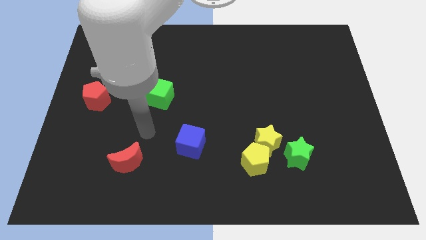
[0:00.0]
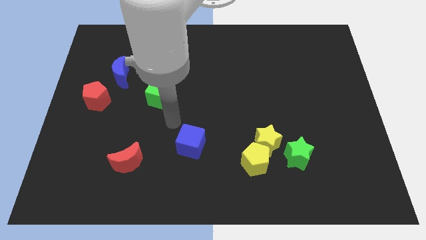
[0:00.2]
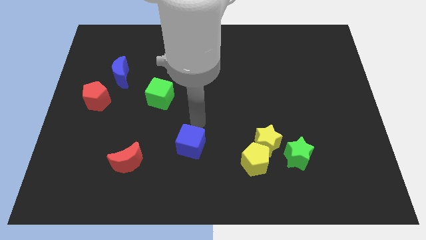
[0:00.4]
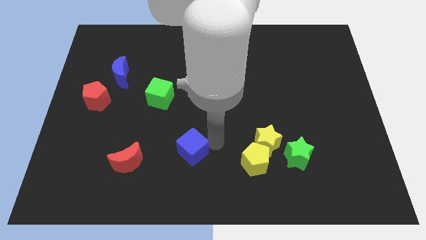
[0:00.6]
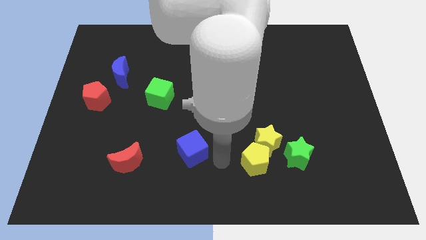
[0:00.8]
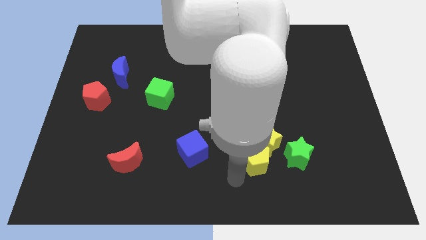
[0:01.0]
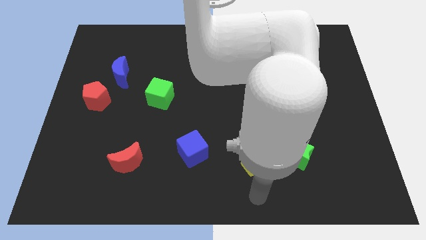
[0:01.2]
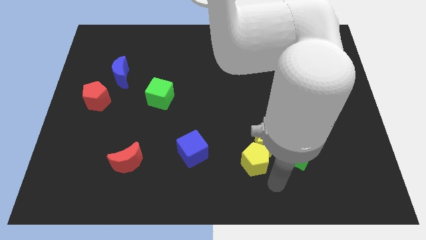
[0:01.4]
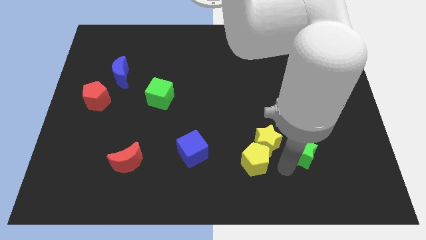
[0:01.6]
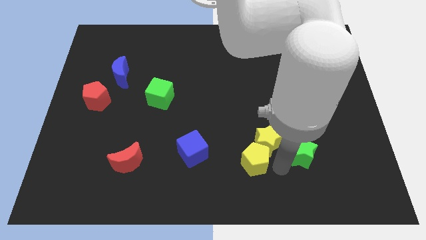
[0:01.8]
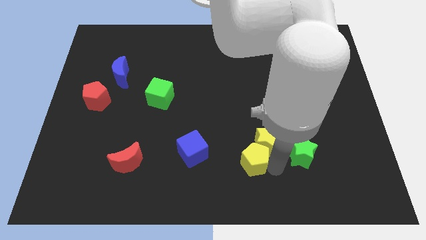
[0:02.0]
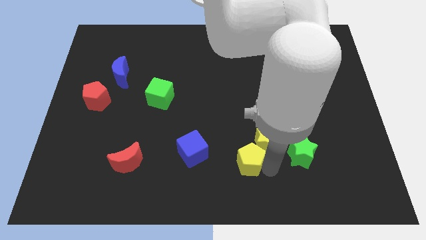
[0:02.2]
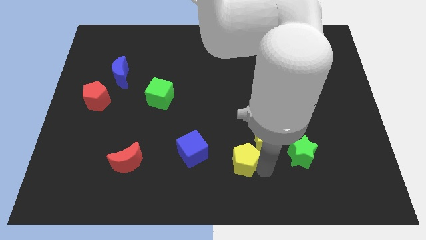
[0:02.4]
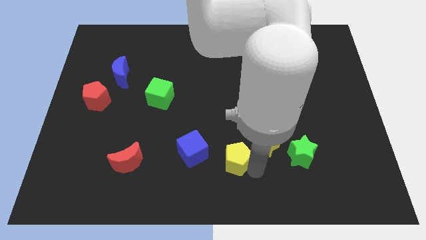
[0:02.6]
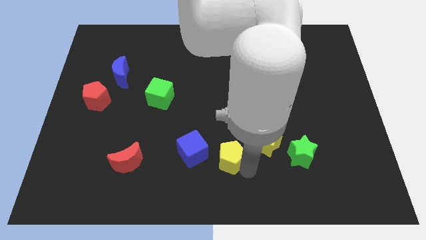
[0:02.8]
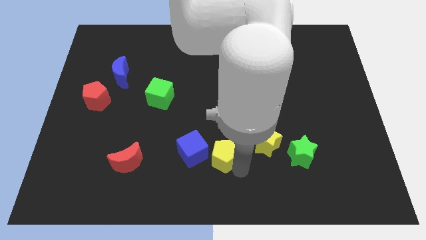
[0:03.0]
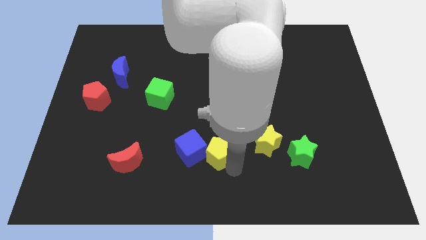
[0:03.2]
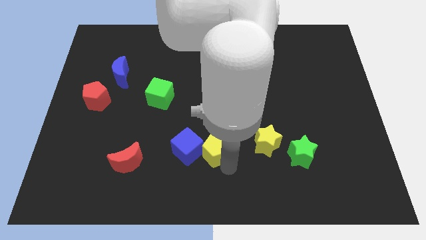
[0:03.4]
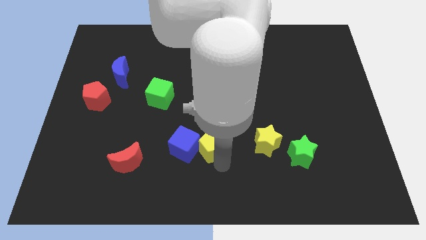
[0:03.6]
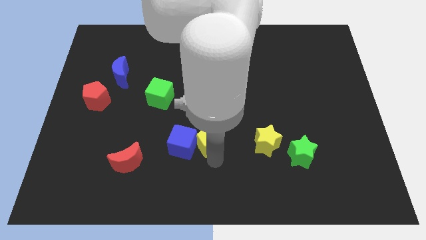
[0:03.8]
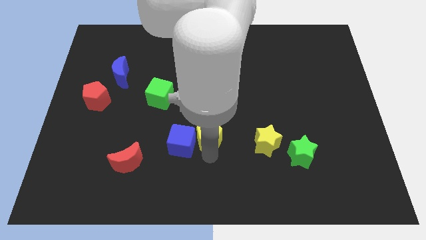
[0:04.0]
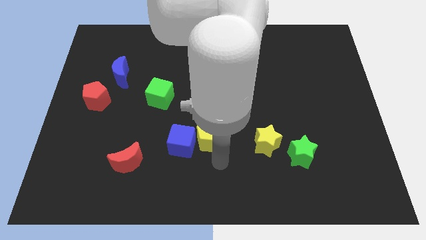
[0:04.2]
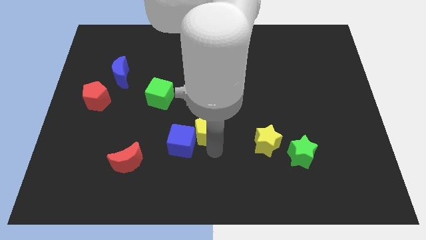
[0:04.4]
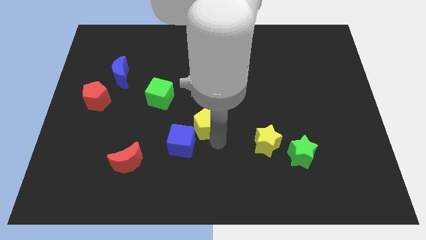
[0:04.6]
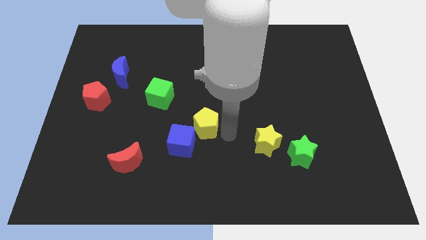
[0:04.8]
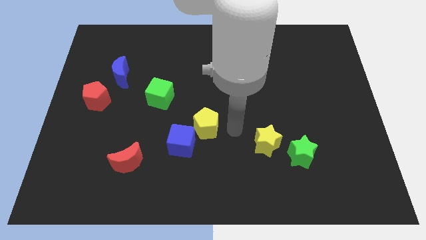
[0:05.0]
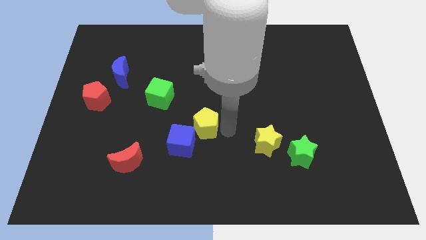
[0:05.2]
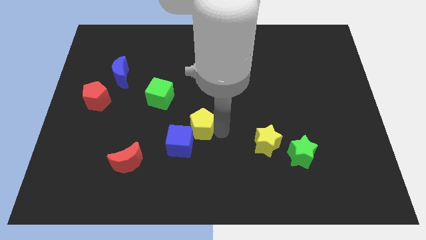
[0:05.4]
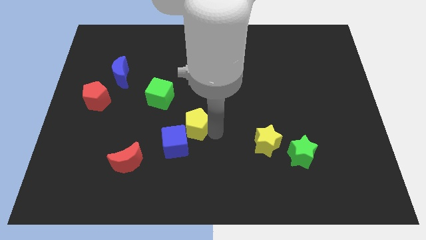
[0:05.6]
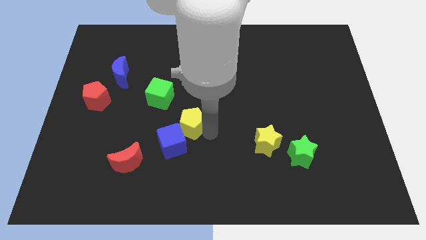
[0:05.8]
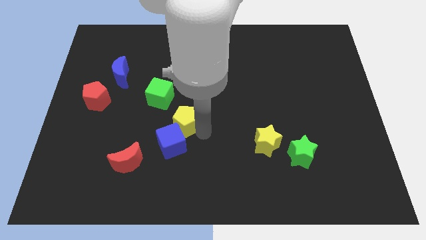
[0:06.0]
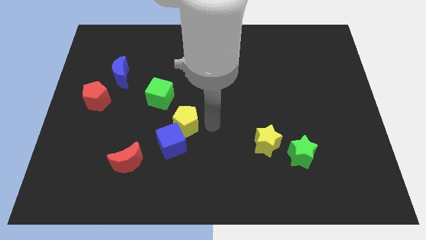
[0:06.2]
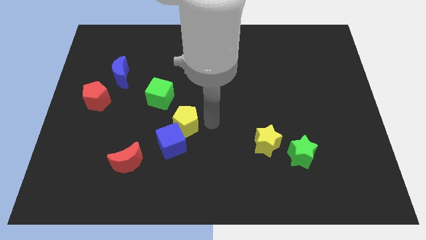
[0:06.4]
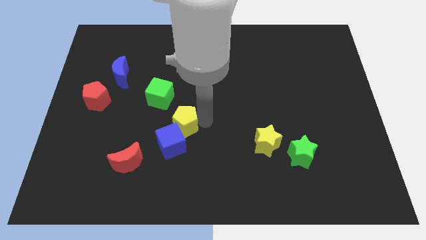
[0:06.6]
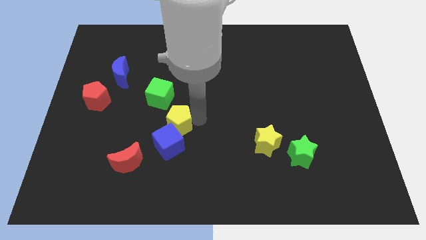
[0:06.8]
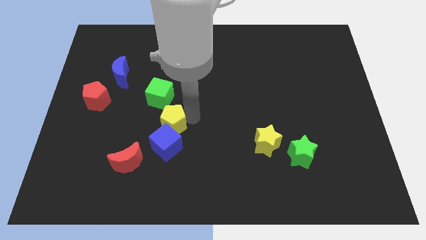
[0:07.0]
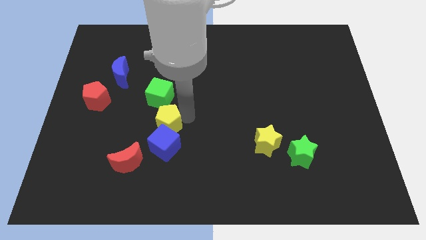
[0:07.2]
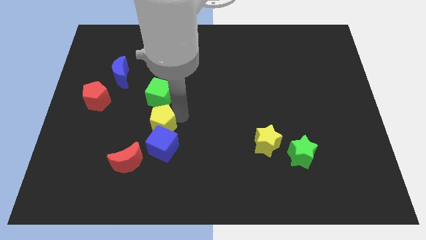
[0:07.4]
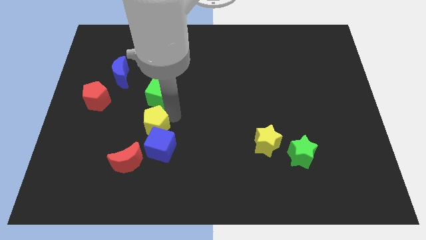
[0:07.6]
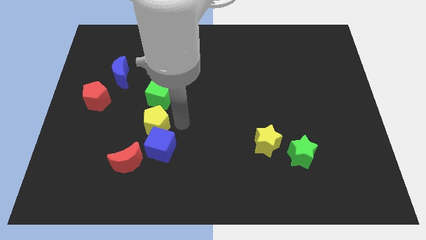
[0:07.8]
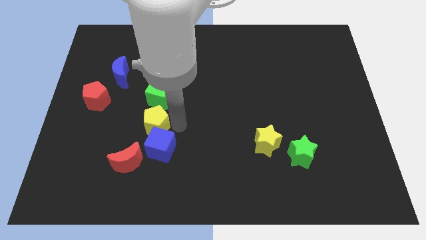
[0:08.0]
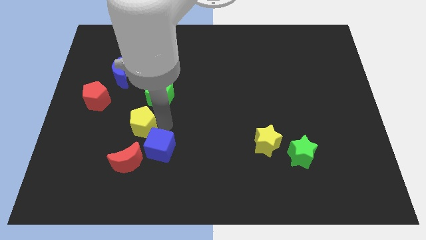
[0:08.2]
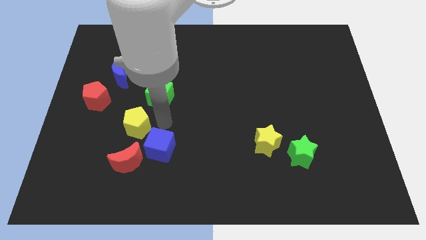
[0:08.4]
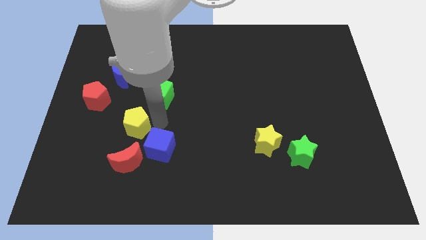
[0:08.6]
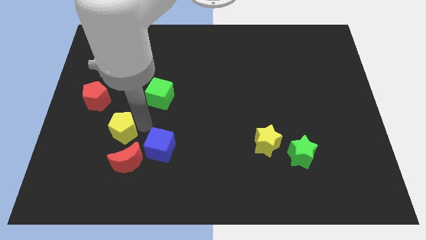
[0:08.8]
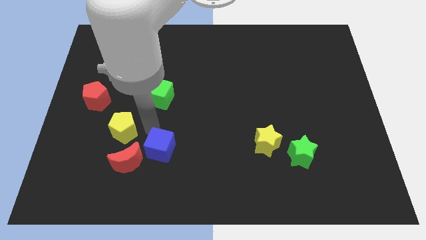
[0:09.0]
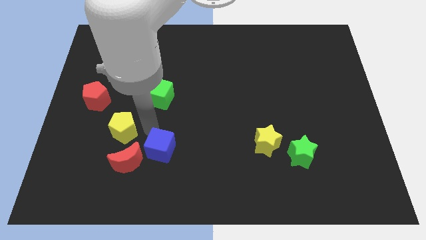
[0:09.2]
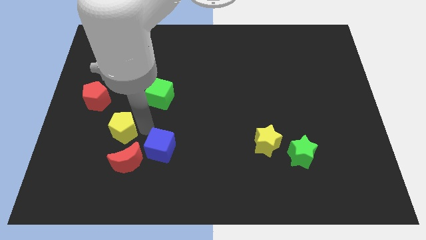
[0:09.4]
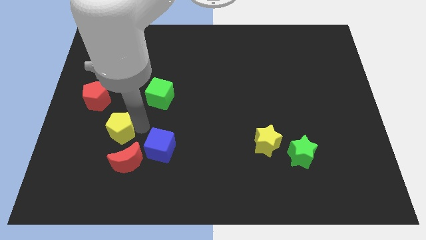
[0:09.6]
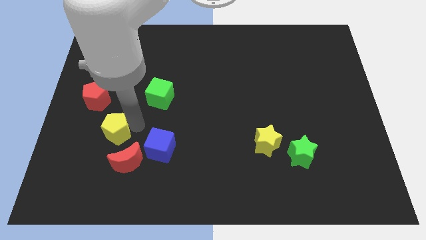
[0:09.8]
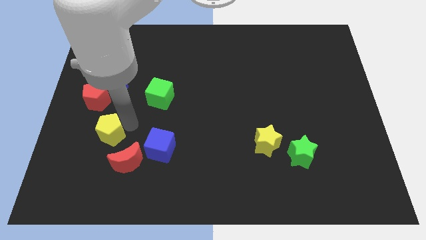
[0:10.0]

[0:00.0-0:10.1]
slide the yellow pentagon to the bottom side of the red pentagon

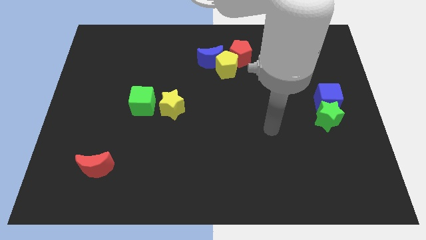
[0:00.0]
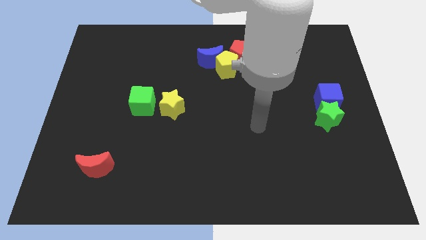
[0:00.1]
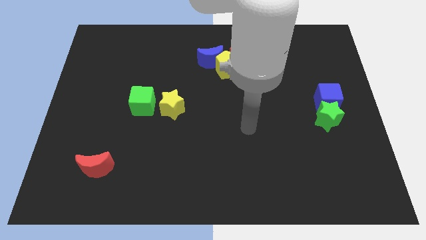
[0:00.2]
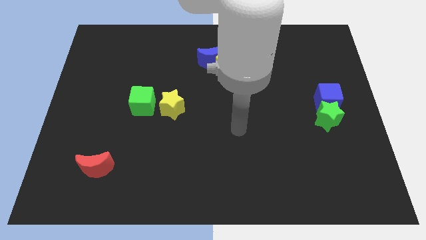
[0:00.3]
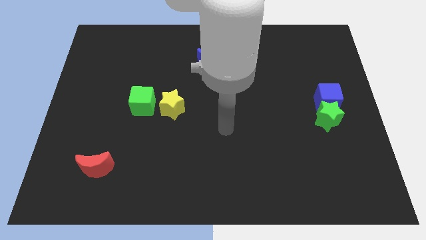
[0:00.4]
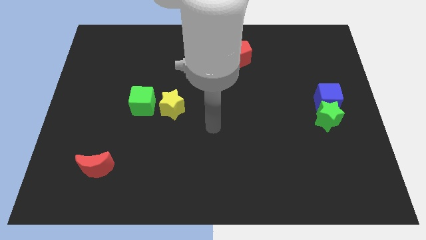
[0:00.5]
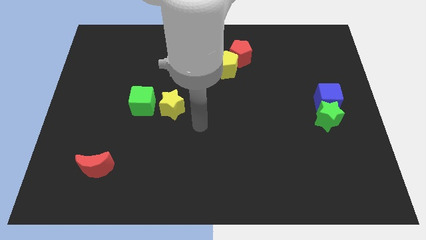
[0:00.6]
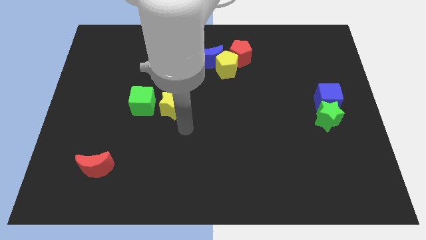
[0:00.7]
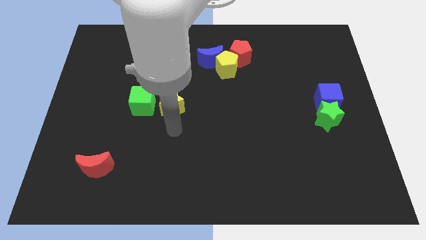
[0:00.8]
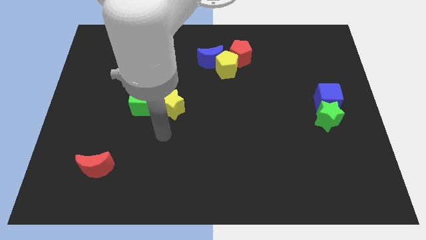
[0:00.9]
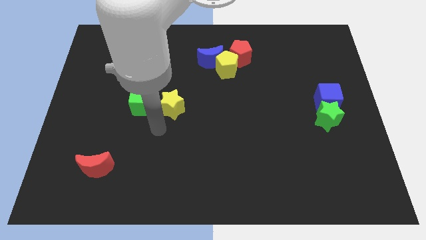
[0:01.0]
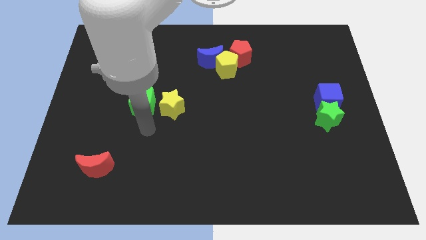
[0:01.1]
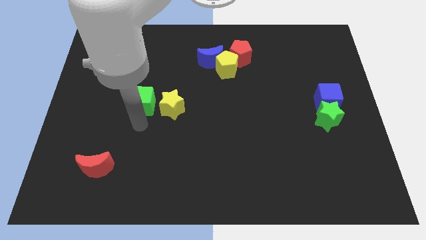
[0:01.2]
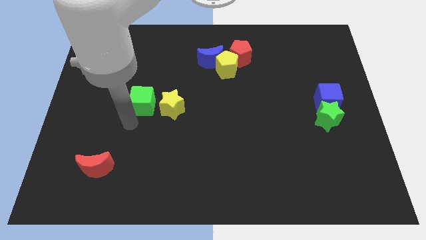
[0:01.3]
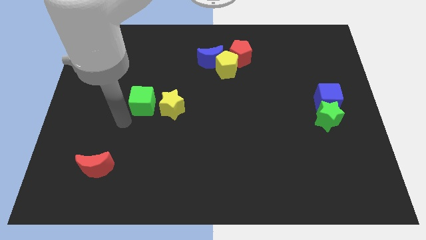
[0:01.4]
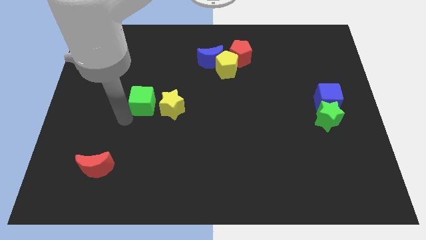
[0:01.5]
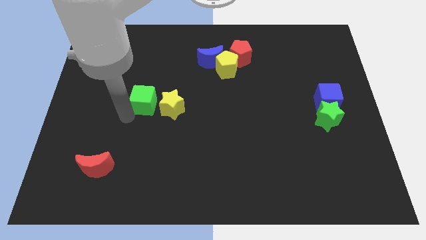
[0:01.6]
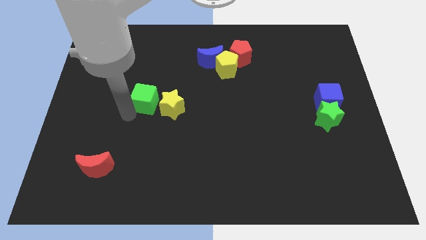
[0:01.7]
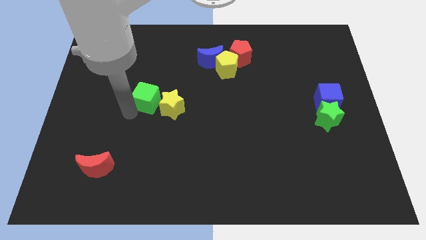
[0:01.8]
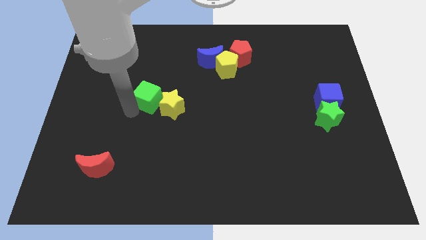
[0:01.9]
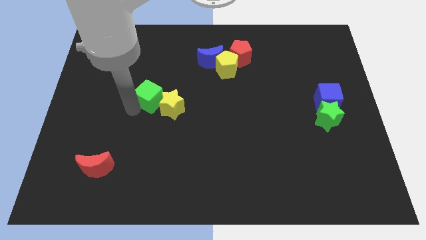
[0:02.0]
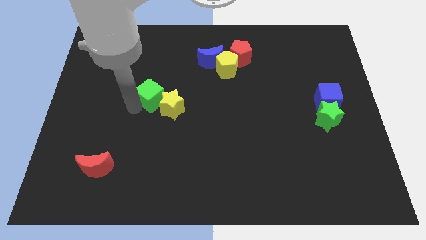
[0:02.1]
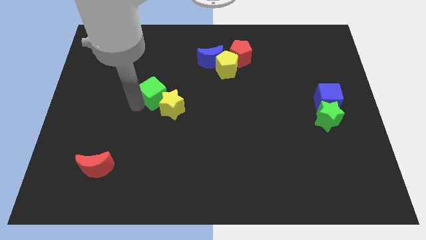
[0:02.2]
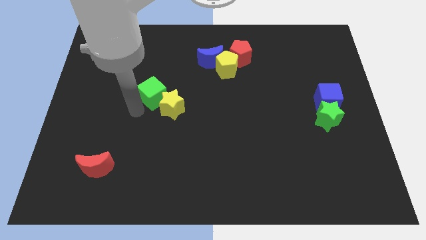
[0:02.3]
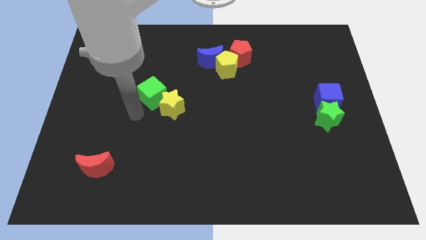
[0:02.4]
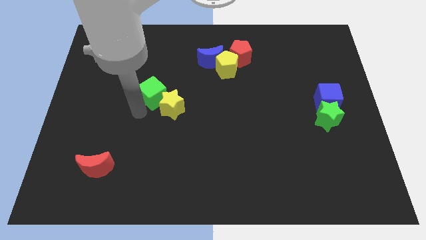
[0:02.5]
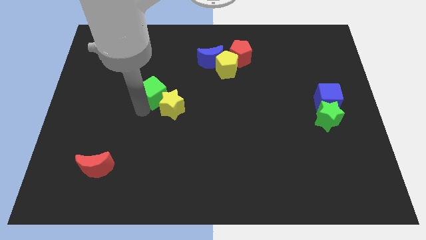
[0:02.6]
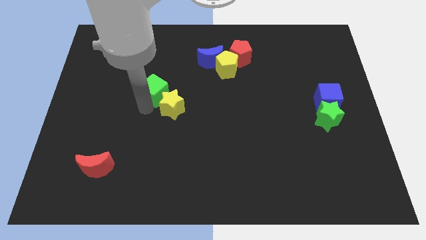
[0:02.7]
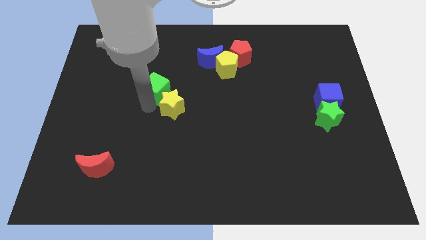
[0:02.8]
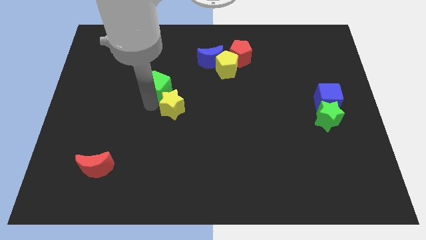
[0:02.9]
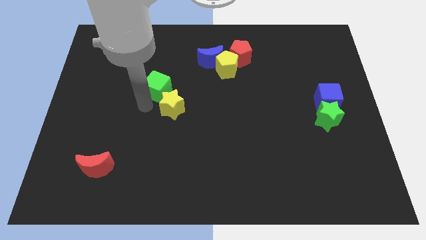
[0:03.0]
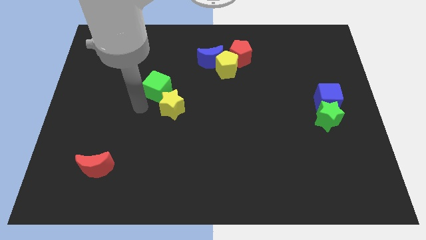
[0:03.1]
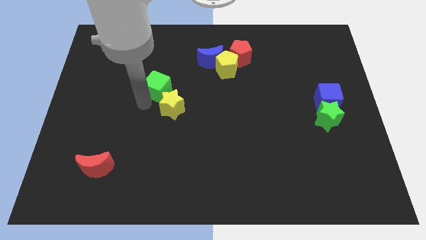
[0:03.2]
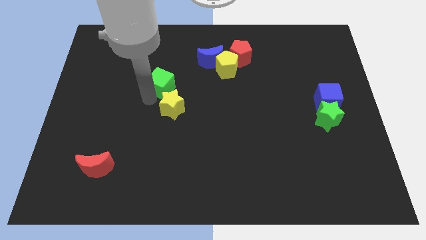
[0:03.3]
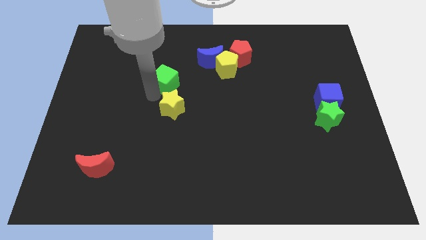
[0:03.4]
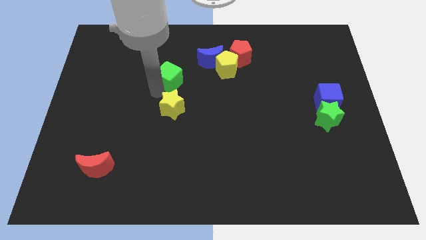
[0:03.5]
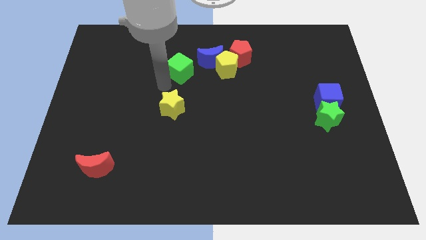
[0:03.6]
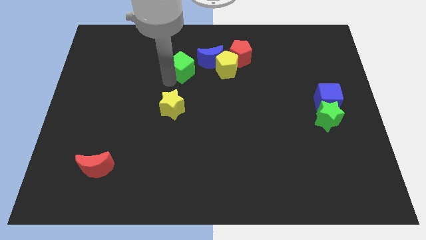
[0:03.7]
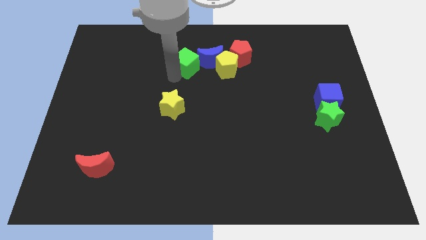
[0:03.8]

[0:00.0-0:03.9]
put the green cube just left of the red pentagon
